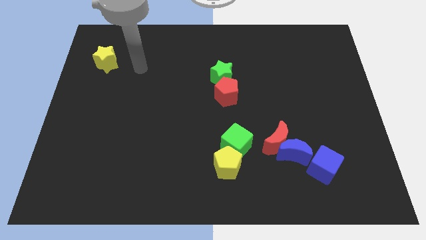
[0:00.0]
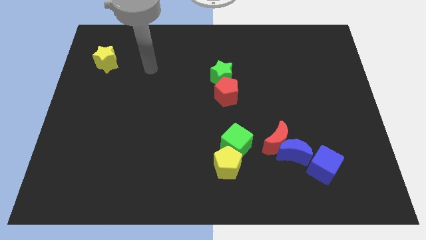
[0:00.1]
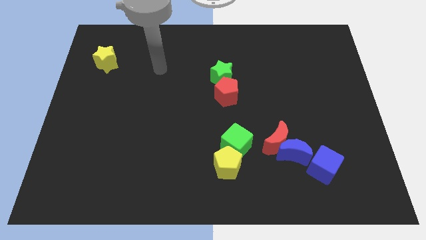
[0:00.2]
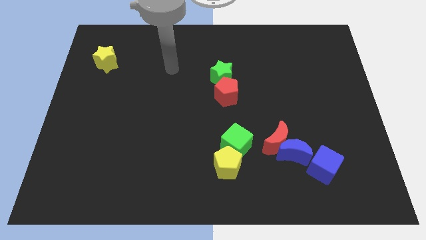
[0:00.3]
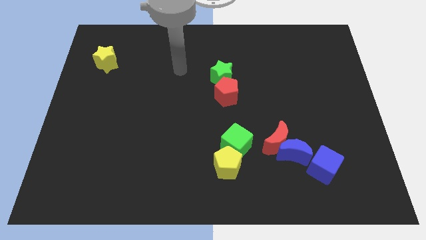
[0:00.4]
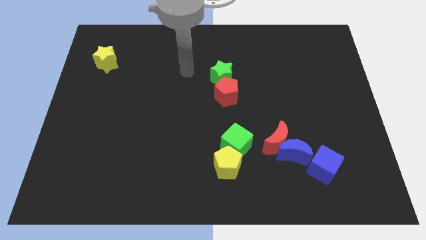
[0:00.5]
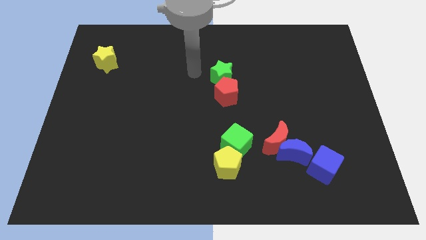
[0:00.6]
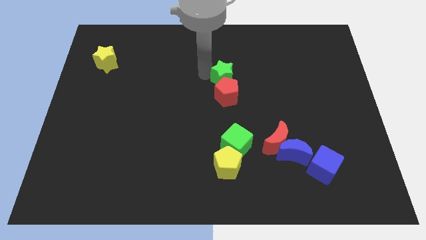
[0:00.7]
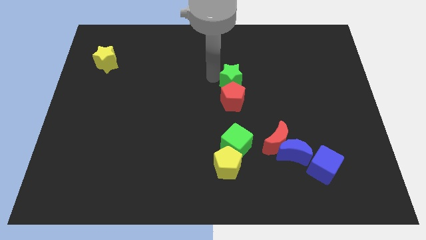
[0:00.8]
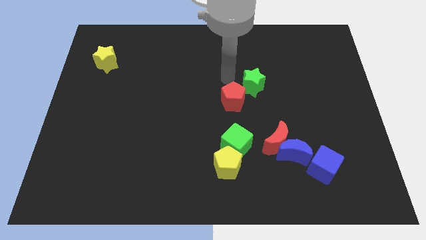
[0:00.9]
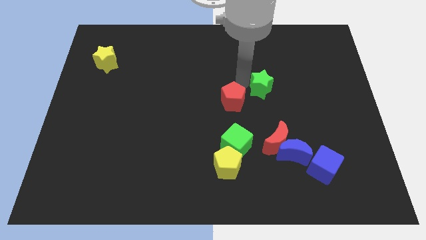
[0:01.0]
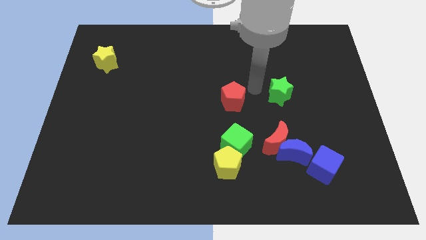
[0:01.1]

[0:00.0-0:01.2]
pull the red pentagon apart from the green star

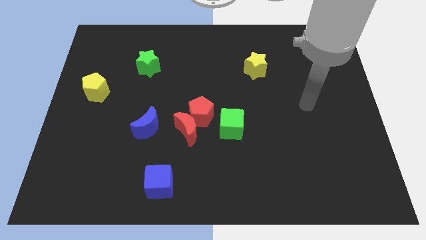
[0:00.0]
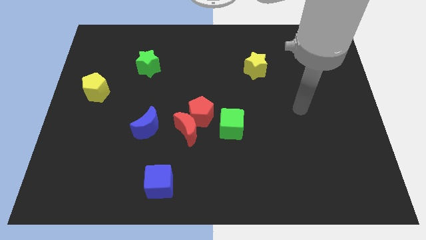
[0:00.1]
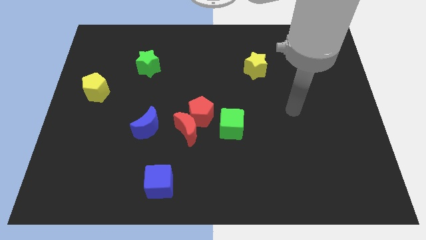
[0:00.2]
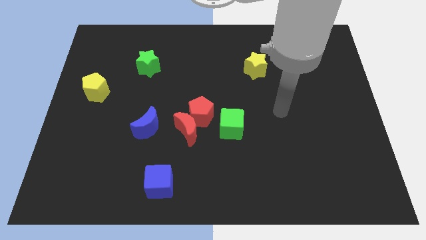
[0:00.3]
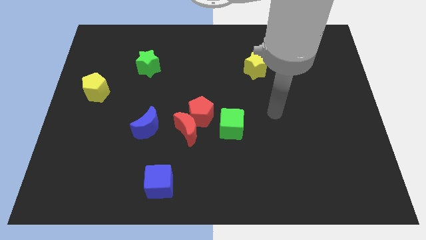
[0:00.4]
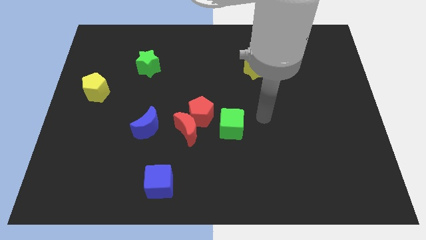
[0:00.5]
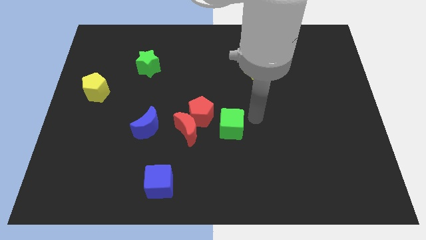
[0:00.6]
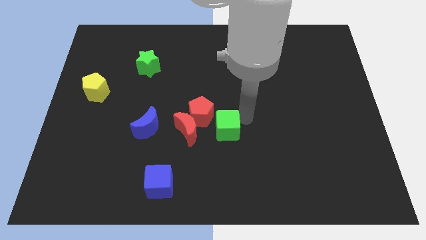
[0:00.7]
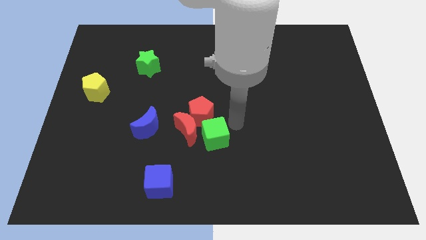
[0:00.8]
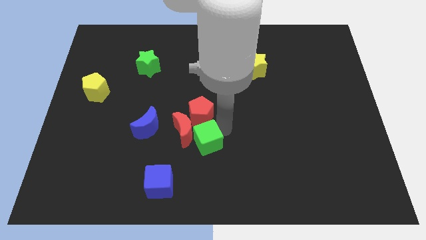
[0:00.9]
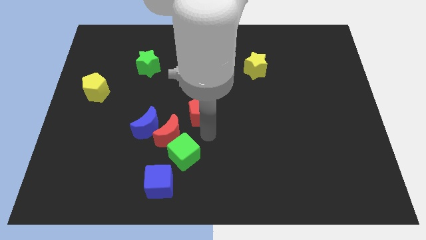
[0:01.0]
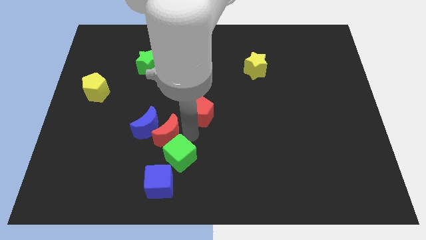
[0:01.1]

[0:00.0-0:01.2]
pull the red pentagon apart from the red moon and green cube

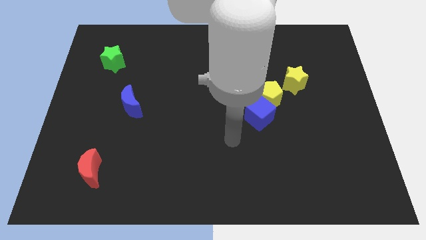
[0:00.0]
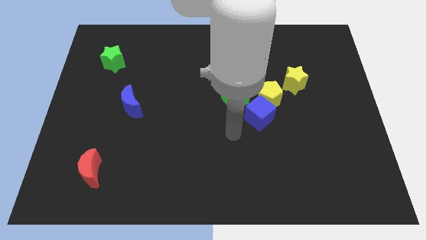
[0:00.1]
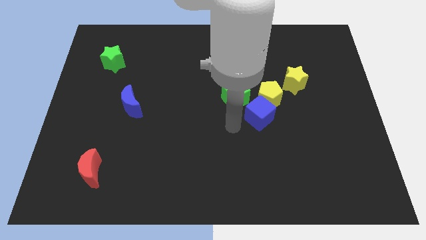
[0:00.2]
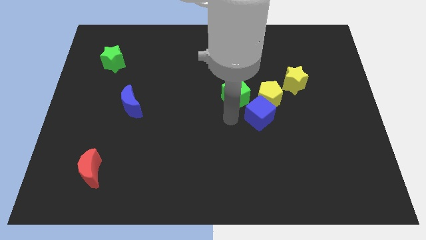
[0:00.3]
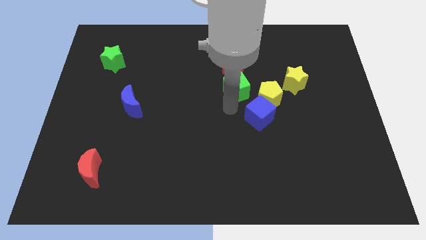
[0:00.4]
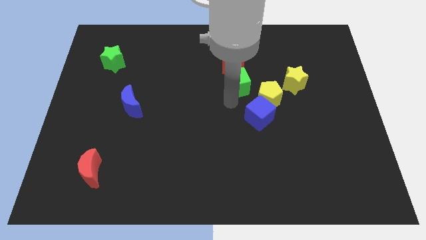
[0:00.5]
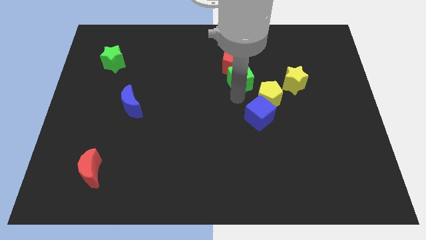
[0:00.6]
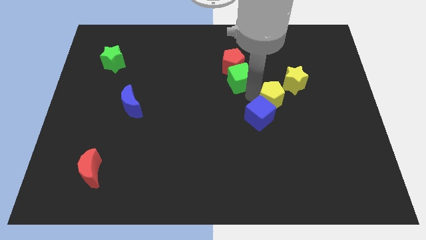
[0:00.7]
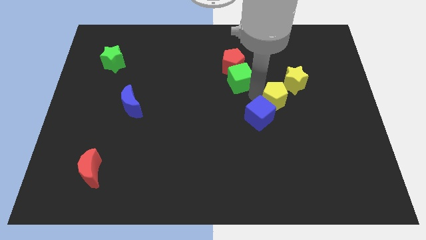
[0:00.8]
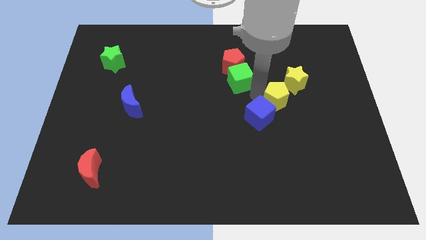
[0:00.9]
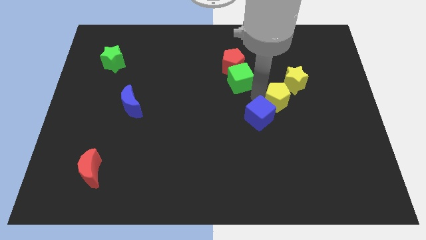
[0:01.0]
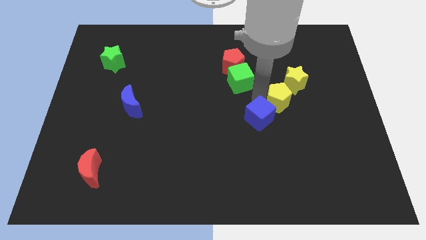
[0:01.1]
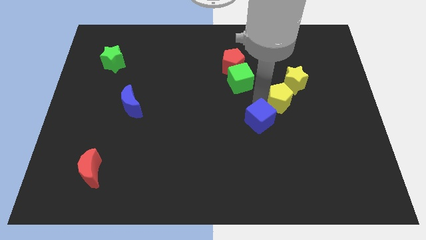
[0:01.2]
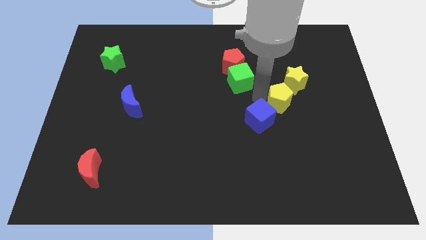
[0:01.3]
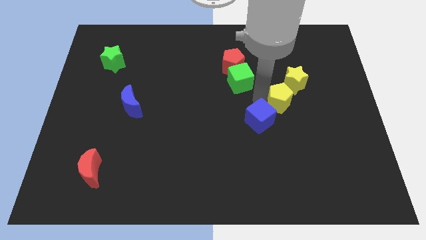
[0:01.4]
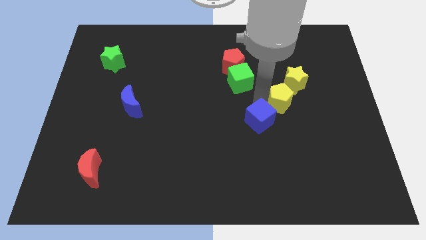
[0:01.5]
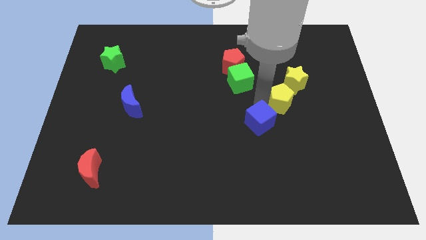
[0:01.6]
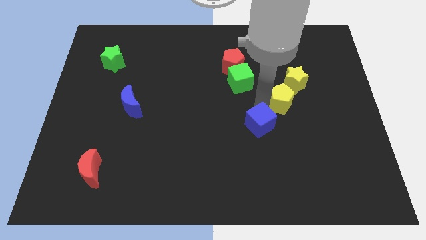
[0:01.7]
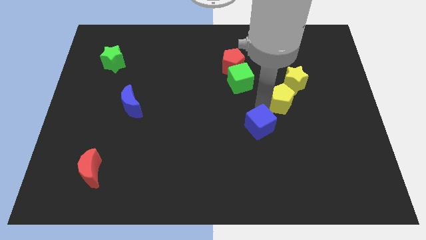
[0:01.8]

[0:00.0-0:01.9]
pull the blue cube apart from the yellow pentagon and green cube

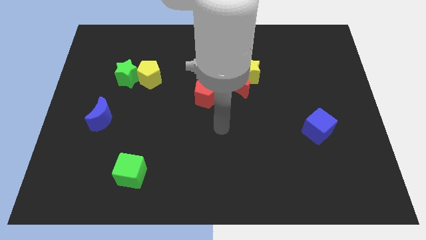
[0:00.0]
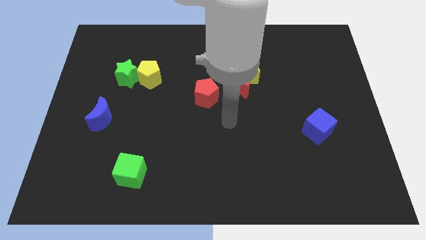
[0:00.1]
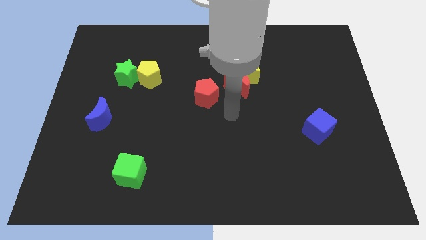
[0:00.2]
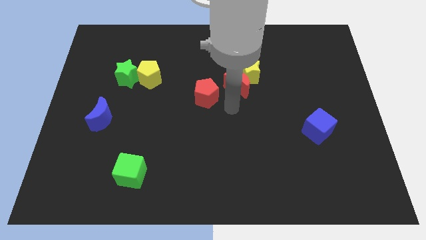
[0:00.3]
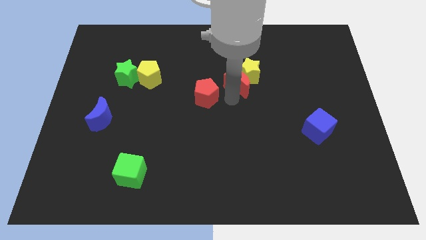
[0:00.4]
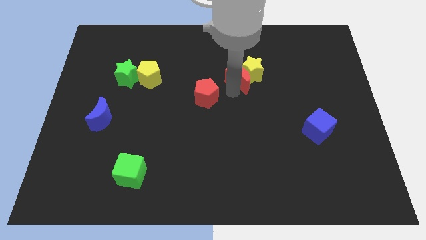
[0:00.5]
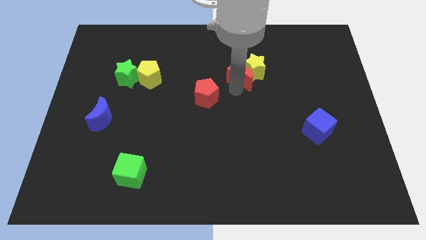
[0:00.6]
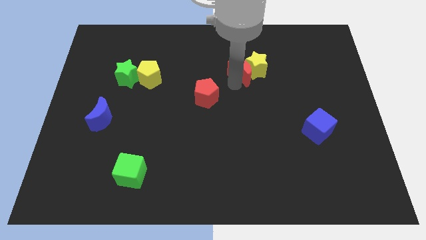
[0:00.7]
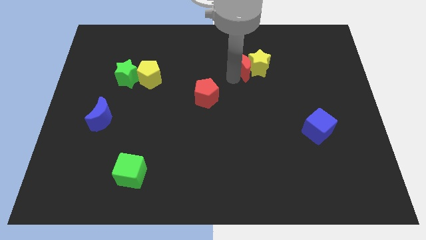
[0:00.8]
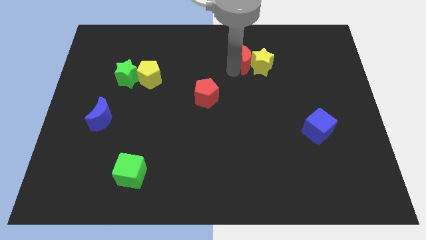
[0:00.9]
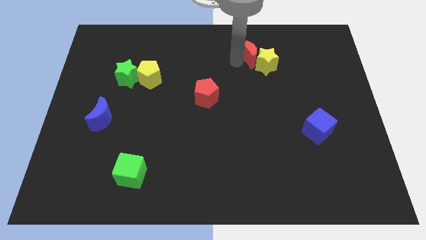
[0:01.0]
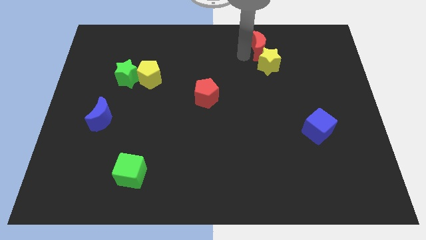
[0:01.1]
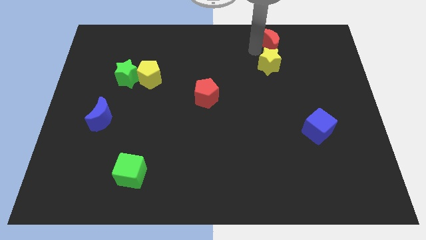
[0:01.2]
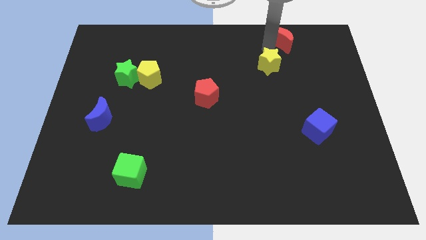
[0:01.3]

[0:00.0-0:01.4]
move the yellow star away from the red moon

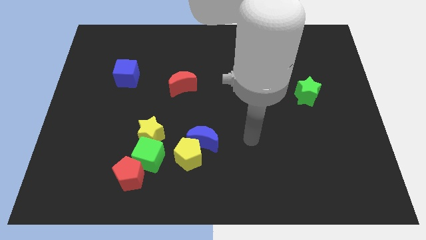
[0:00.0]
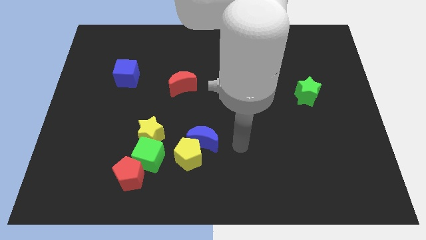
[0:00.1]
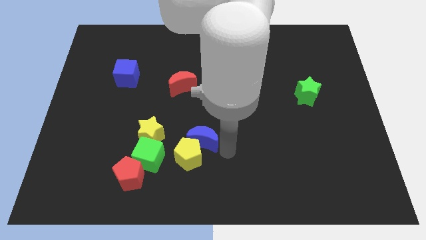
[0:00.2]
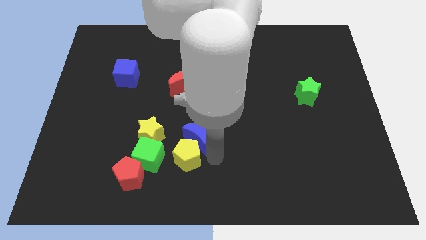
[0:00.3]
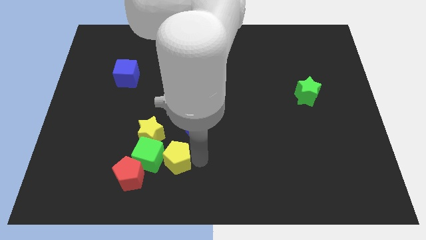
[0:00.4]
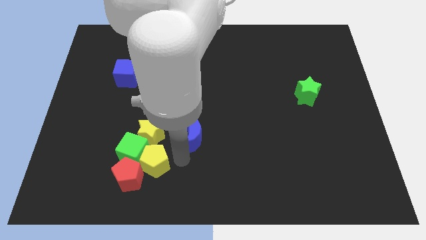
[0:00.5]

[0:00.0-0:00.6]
pull the blue moon apart from the yellow pentagon

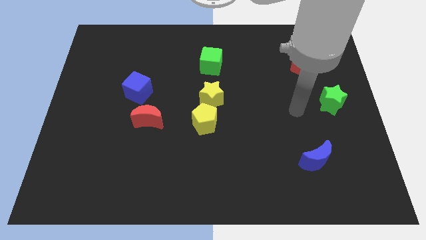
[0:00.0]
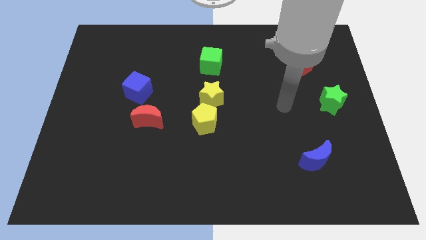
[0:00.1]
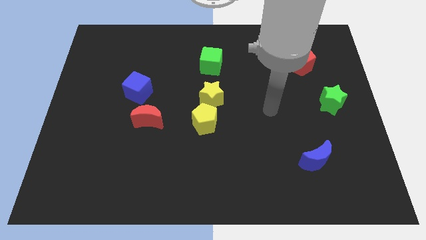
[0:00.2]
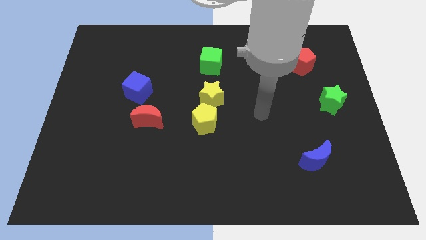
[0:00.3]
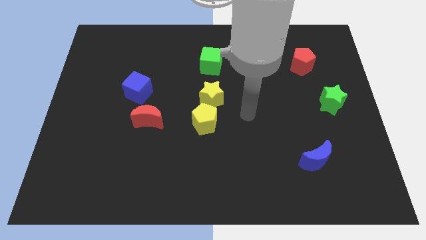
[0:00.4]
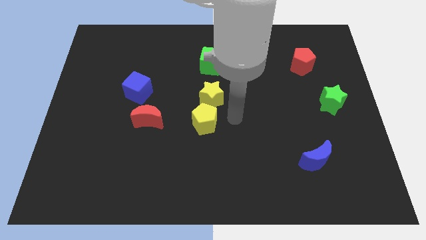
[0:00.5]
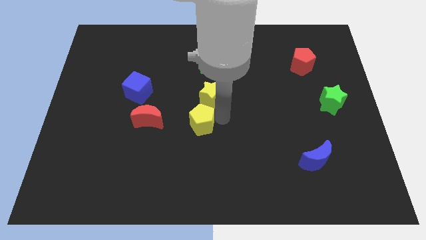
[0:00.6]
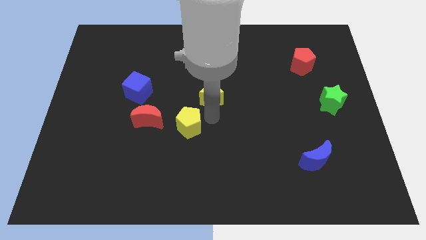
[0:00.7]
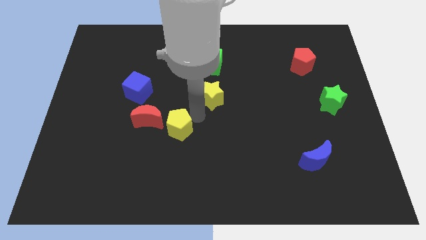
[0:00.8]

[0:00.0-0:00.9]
move the yellow star away from the yellow pentagon

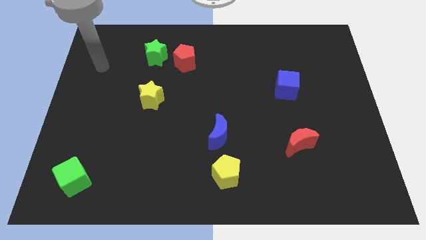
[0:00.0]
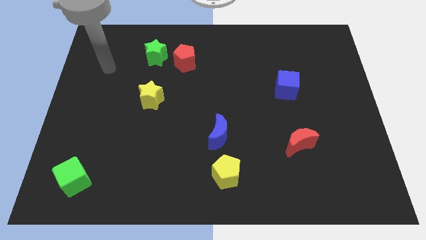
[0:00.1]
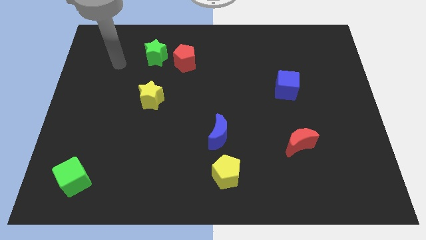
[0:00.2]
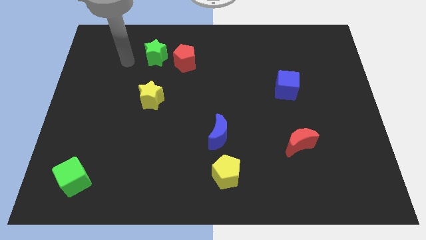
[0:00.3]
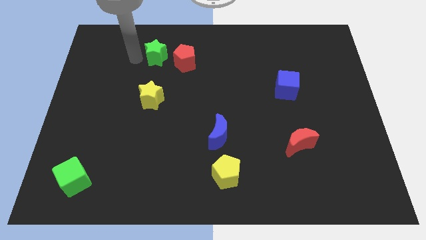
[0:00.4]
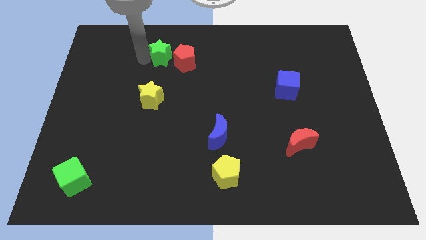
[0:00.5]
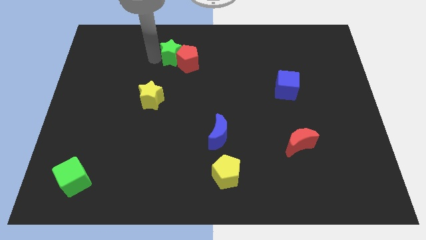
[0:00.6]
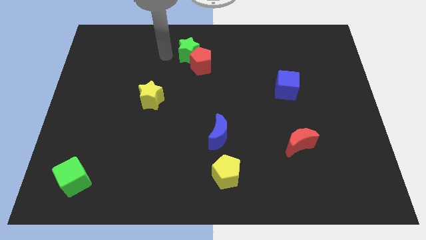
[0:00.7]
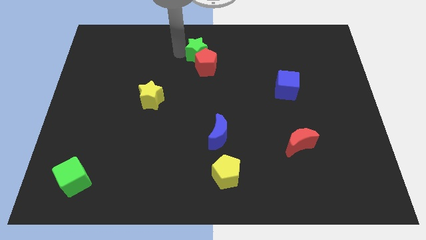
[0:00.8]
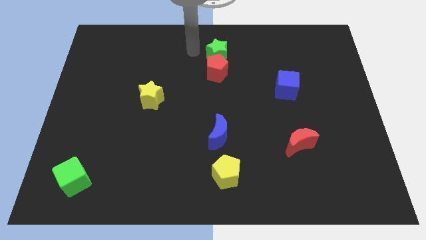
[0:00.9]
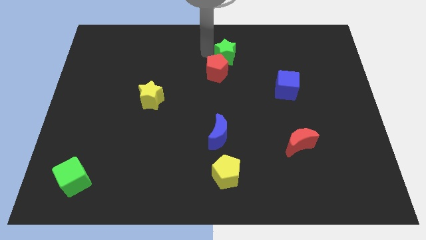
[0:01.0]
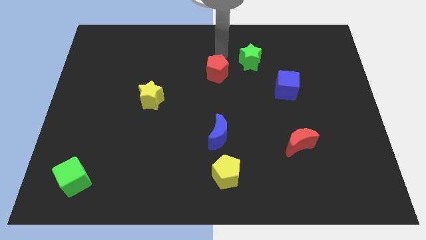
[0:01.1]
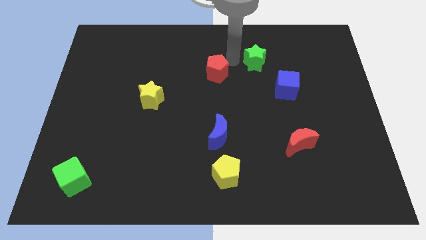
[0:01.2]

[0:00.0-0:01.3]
move the red pentagon away from the green star

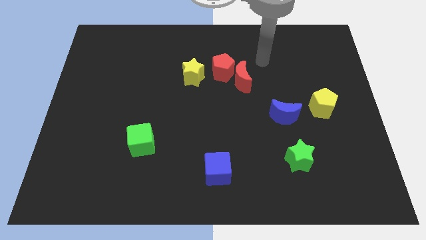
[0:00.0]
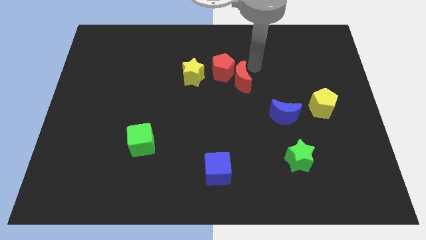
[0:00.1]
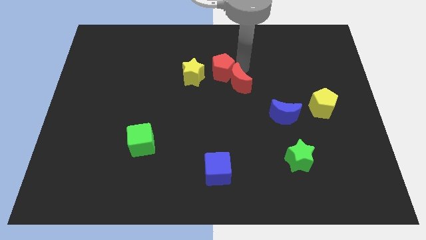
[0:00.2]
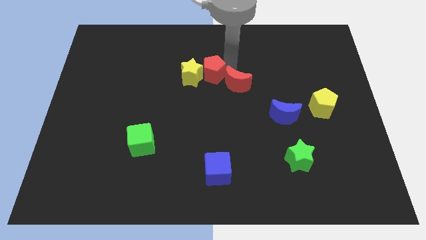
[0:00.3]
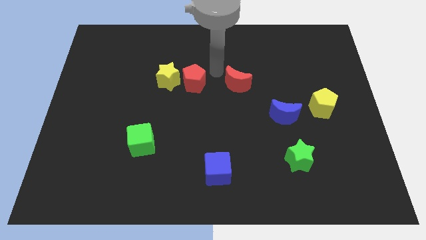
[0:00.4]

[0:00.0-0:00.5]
move the red moon away from the red pentagon

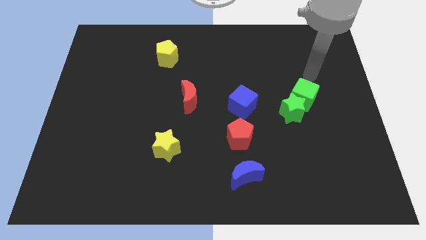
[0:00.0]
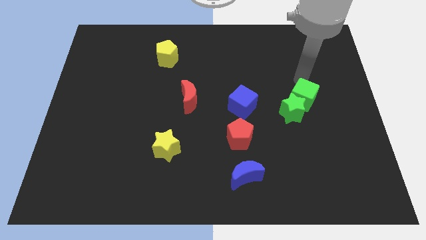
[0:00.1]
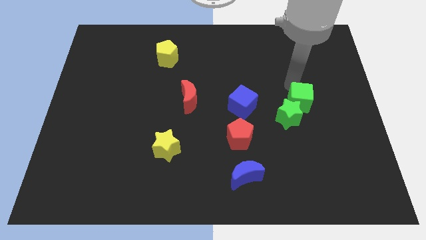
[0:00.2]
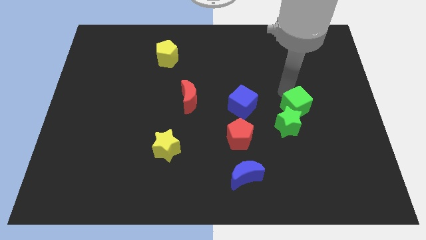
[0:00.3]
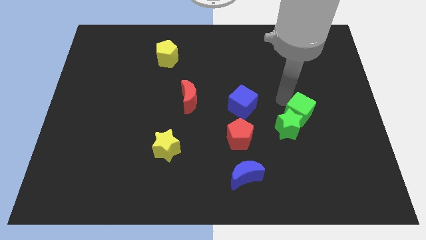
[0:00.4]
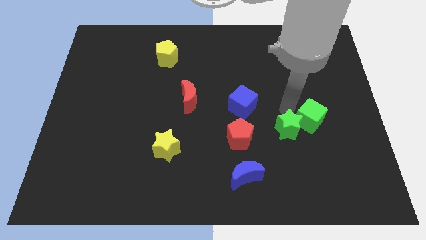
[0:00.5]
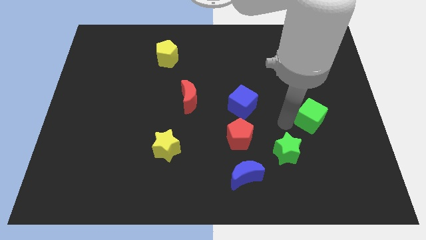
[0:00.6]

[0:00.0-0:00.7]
move the green cube away from the green star
